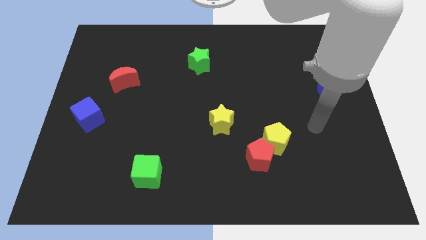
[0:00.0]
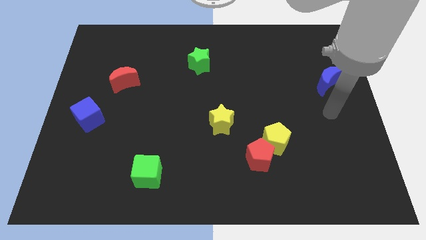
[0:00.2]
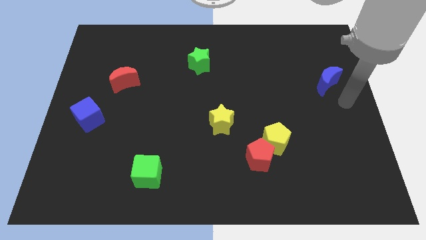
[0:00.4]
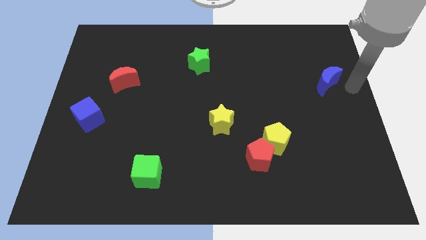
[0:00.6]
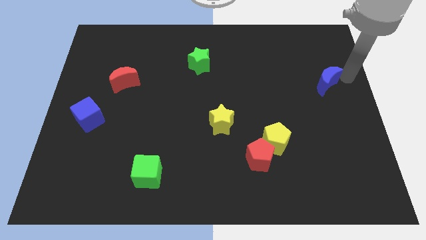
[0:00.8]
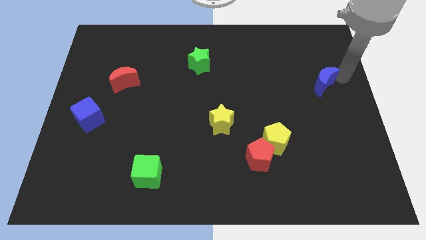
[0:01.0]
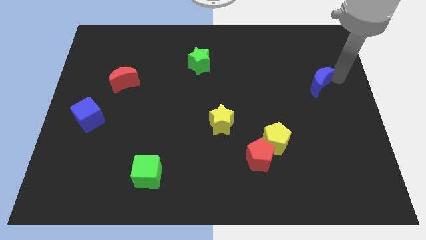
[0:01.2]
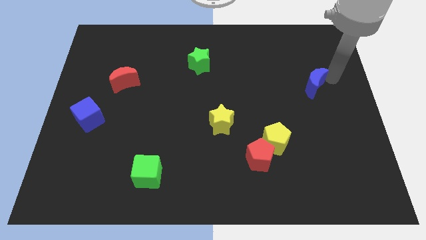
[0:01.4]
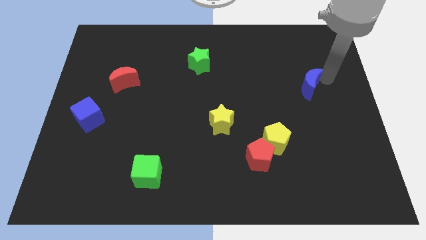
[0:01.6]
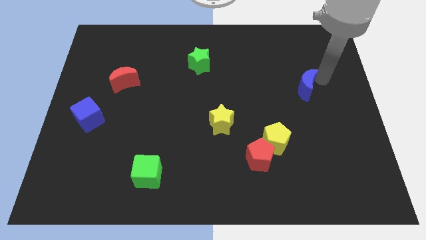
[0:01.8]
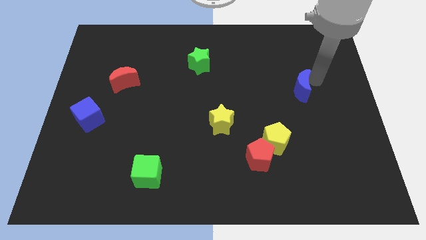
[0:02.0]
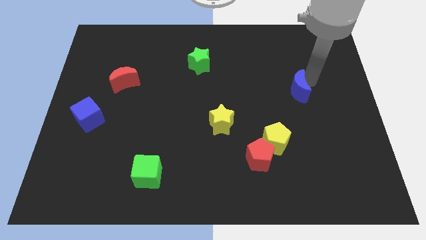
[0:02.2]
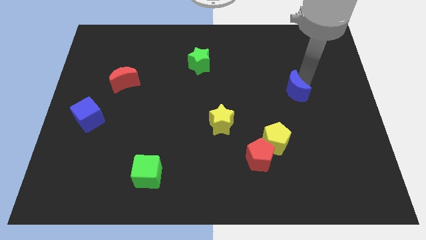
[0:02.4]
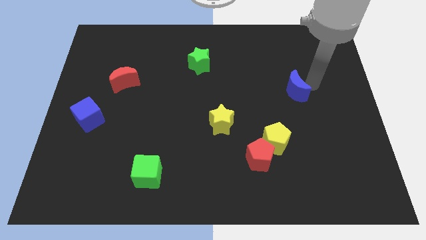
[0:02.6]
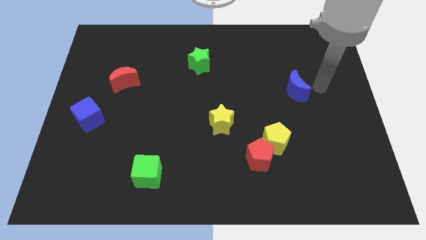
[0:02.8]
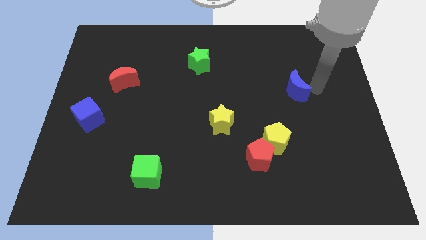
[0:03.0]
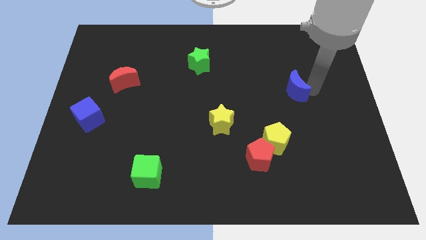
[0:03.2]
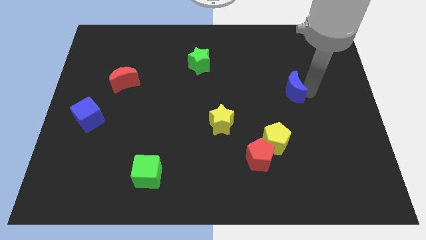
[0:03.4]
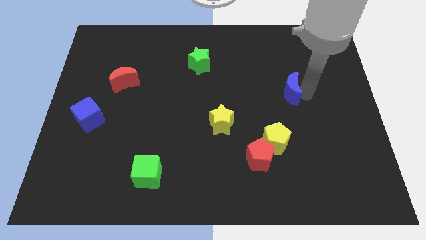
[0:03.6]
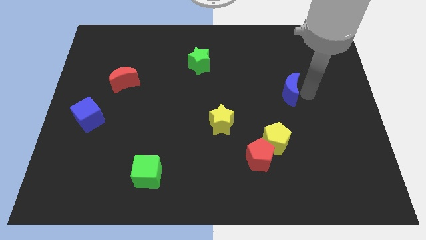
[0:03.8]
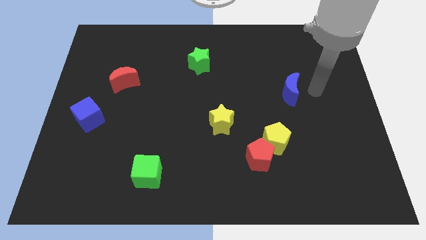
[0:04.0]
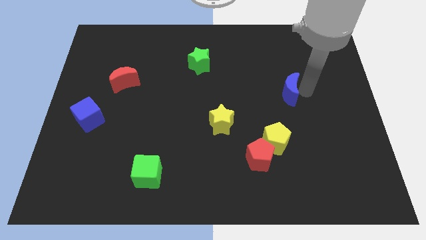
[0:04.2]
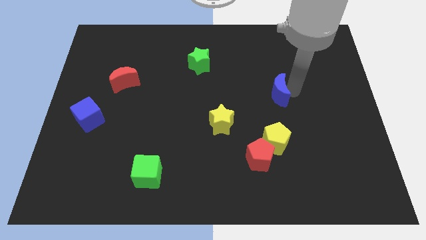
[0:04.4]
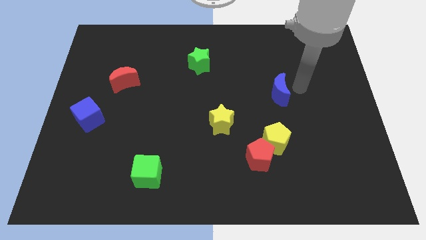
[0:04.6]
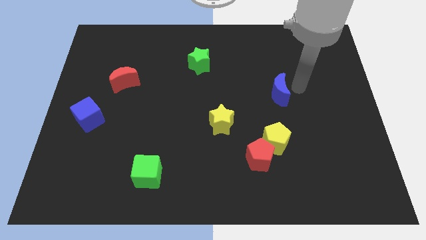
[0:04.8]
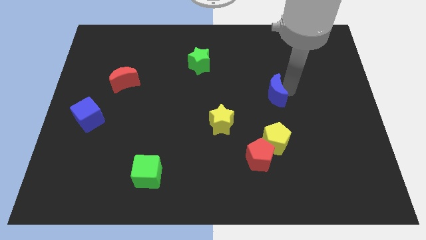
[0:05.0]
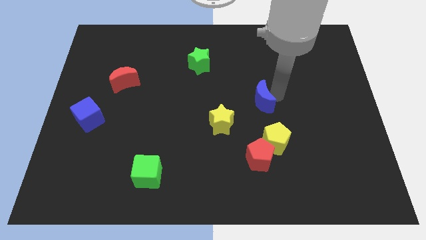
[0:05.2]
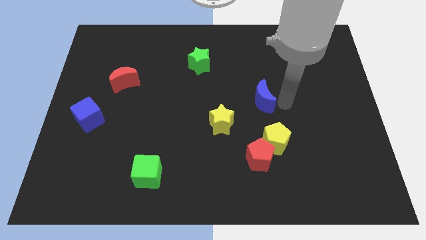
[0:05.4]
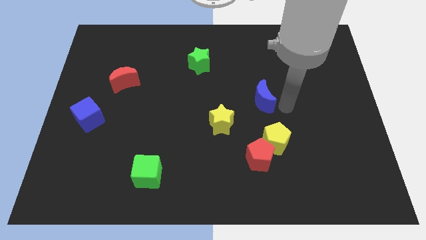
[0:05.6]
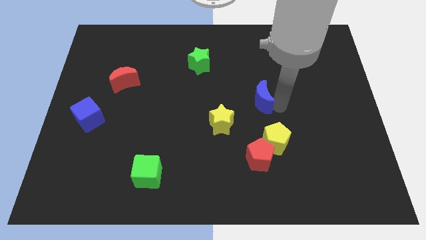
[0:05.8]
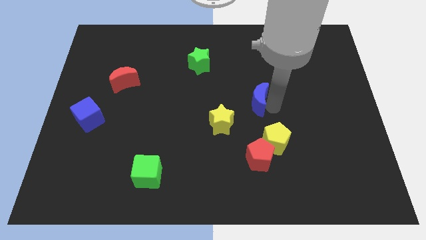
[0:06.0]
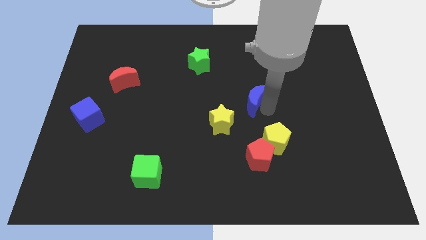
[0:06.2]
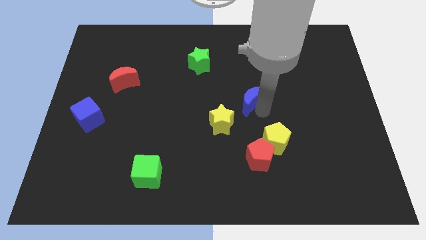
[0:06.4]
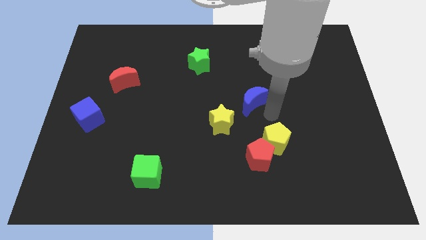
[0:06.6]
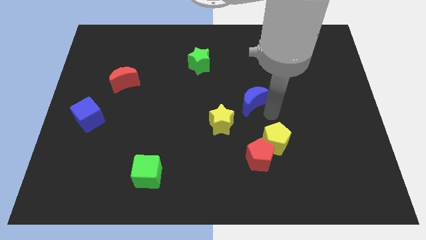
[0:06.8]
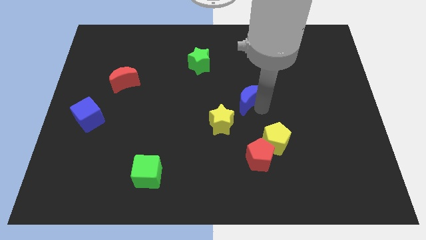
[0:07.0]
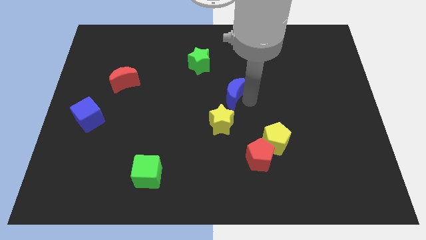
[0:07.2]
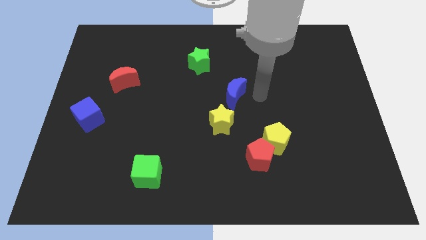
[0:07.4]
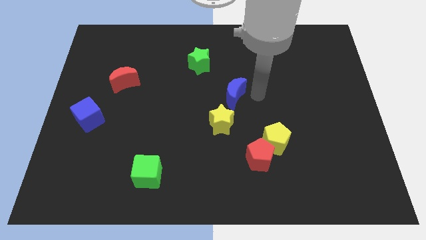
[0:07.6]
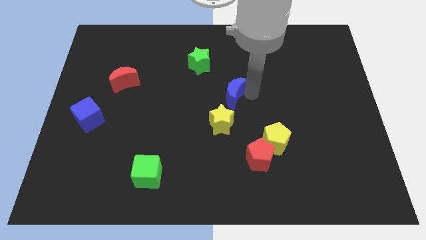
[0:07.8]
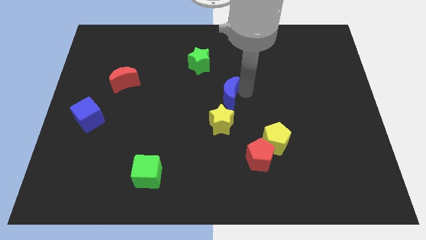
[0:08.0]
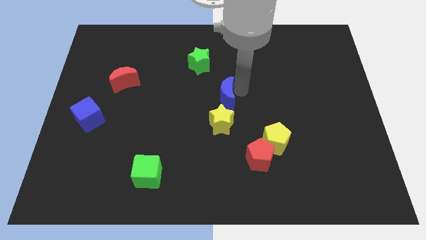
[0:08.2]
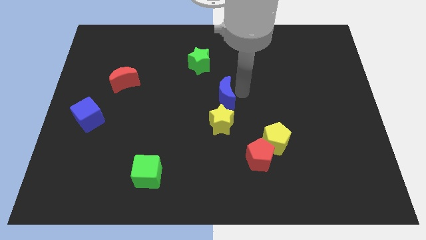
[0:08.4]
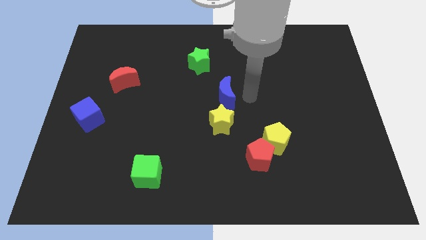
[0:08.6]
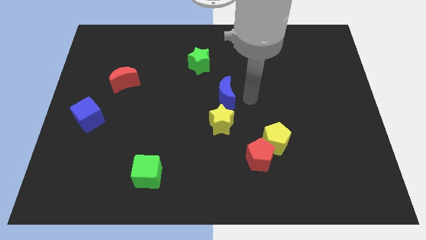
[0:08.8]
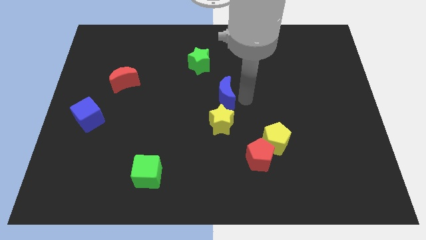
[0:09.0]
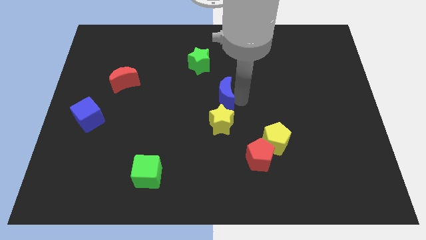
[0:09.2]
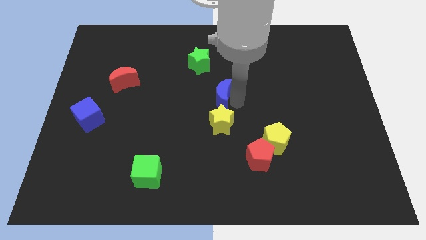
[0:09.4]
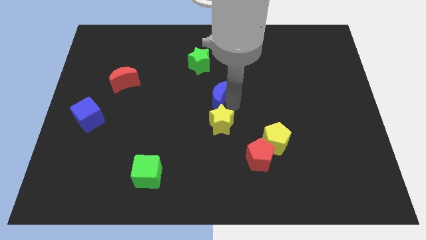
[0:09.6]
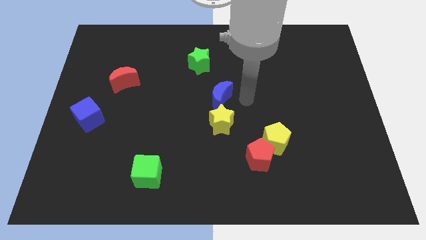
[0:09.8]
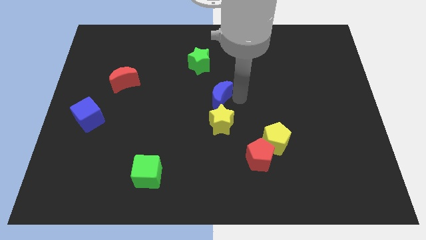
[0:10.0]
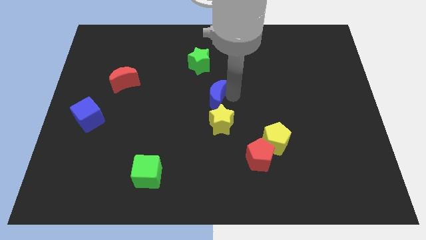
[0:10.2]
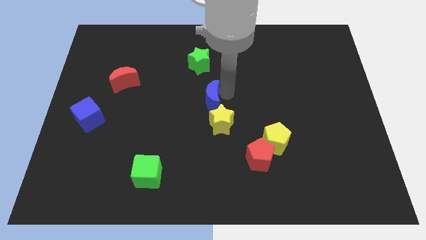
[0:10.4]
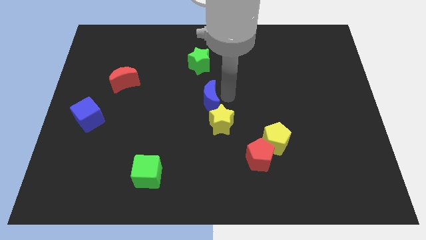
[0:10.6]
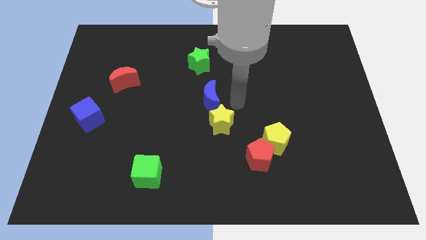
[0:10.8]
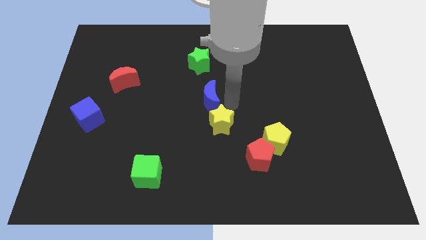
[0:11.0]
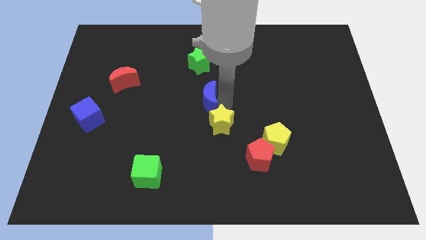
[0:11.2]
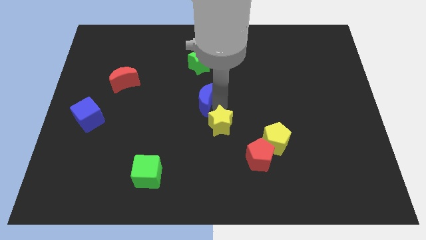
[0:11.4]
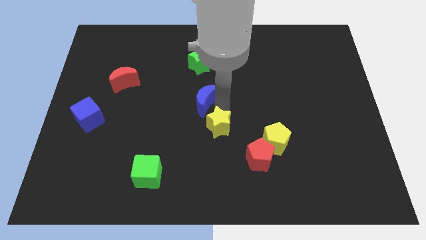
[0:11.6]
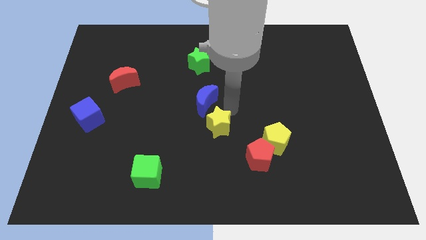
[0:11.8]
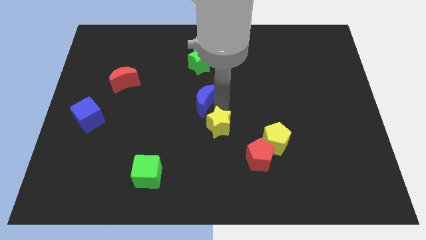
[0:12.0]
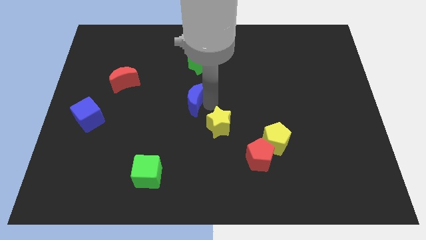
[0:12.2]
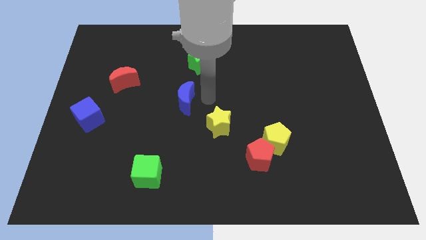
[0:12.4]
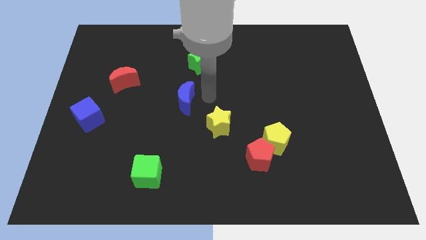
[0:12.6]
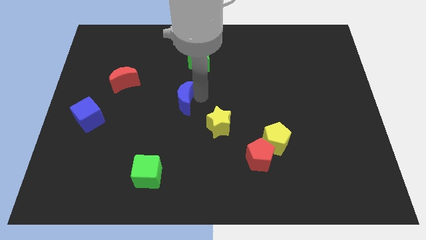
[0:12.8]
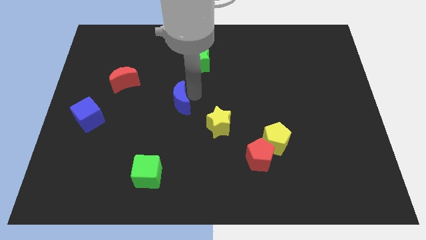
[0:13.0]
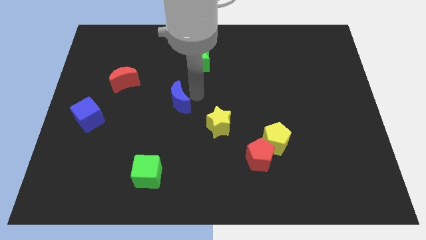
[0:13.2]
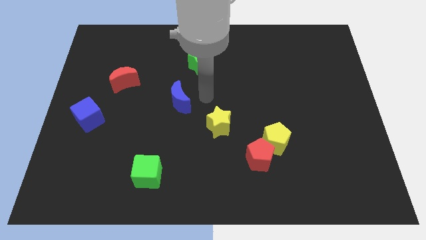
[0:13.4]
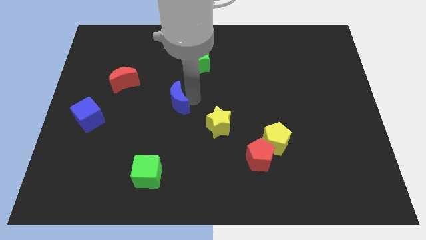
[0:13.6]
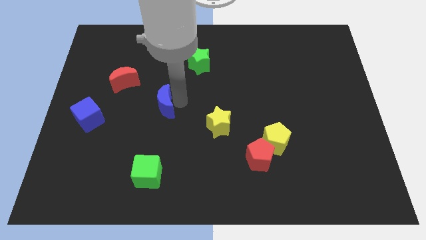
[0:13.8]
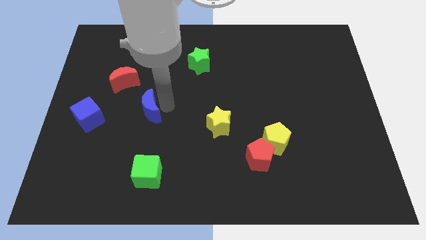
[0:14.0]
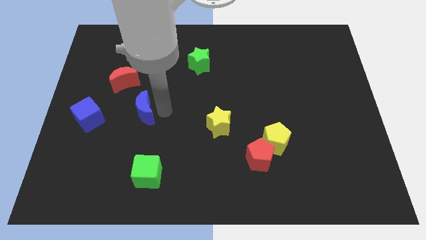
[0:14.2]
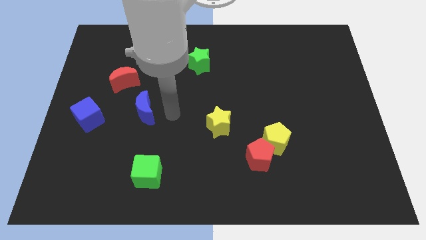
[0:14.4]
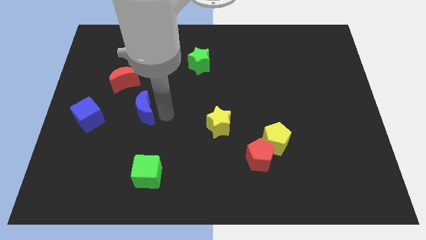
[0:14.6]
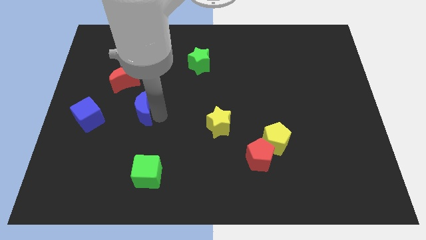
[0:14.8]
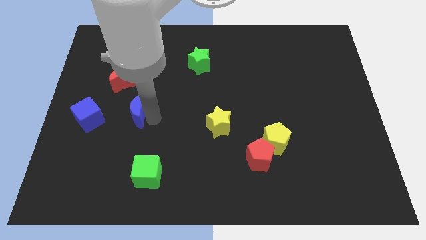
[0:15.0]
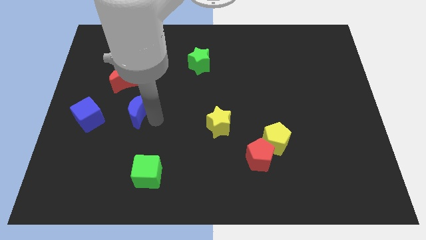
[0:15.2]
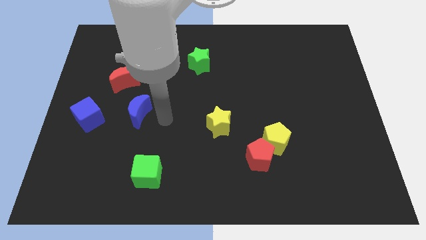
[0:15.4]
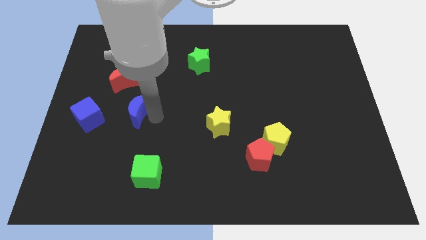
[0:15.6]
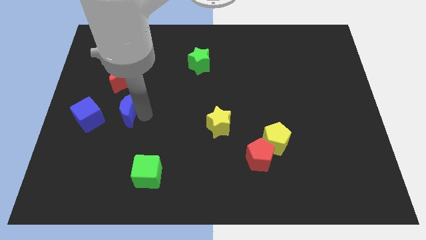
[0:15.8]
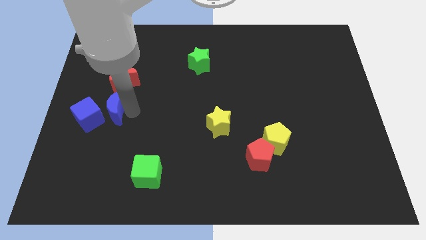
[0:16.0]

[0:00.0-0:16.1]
put the blue moon next to the blue cube
